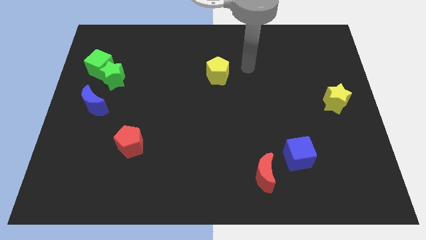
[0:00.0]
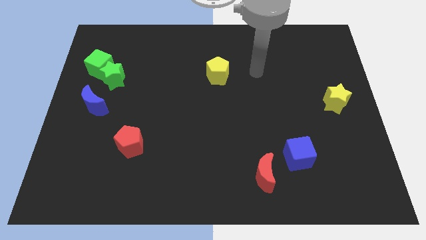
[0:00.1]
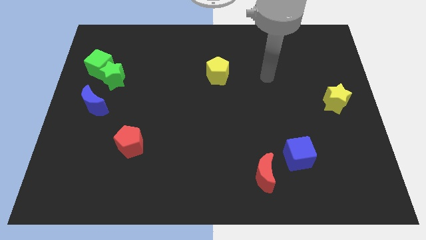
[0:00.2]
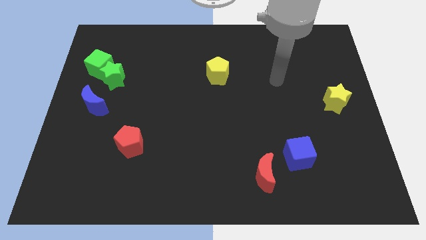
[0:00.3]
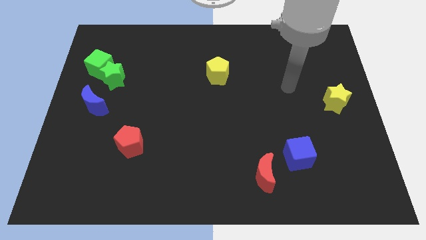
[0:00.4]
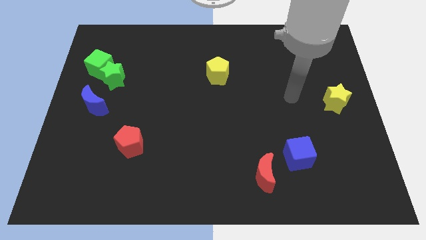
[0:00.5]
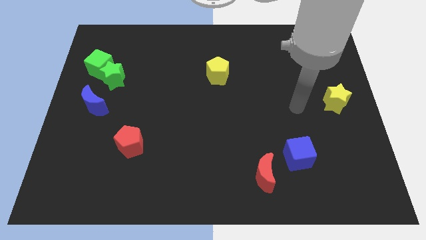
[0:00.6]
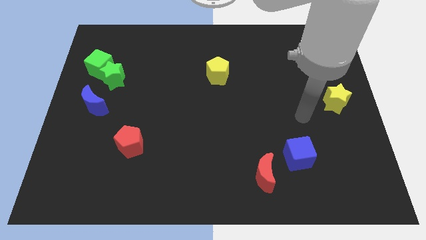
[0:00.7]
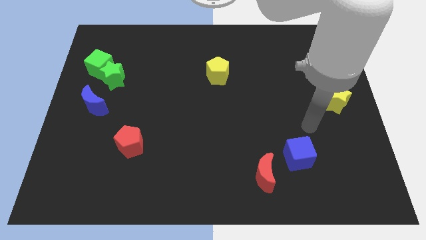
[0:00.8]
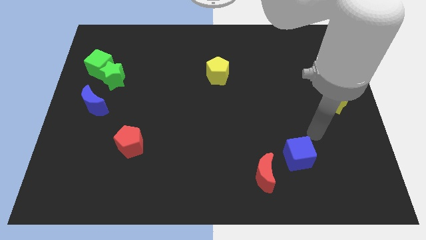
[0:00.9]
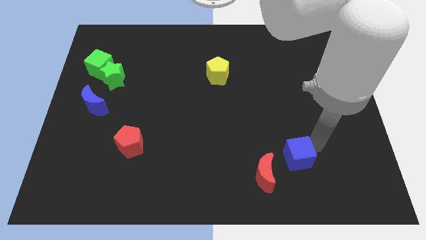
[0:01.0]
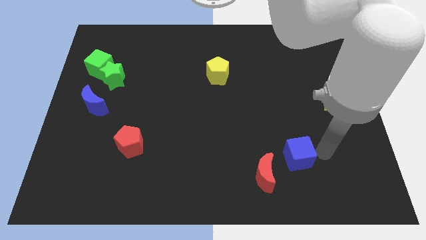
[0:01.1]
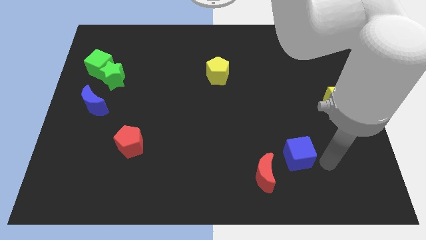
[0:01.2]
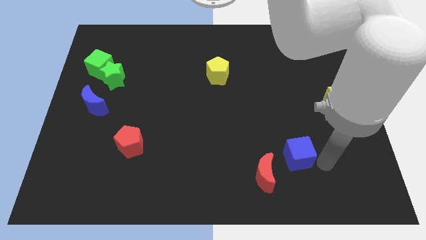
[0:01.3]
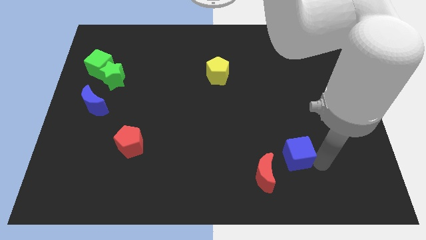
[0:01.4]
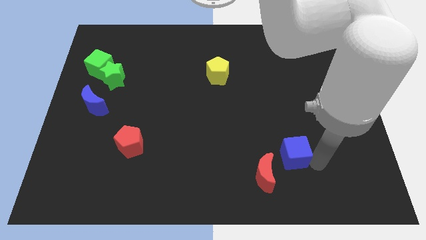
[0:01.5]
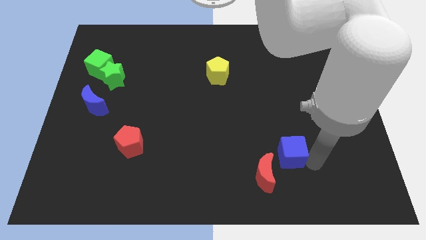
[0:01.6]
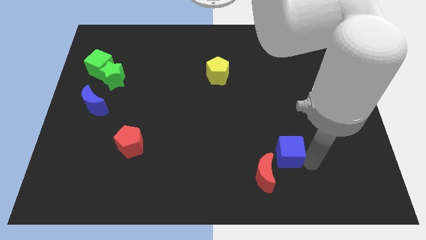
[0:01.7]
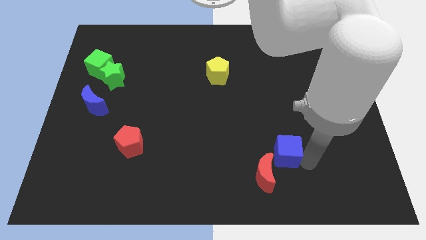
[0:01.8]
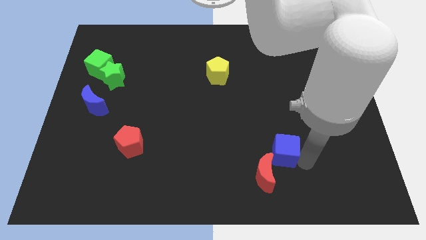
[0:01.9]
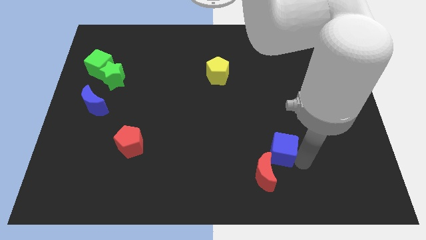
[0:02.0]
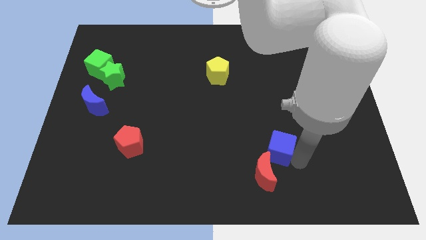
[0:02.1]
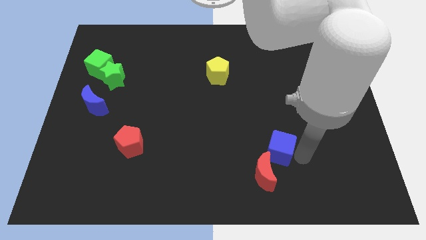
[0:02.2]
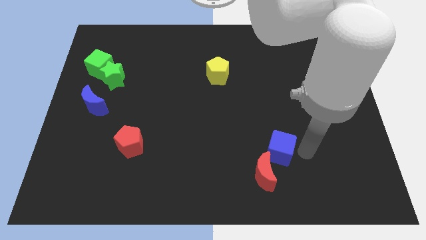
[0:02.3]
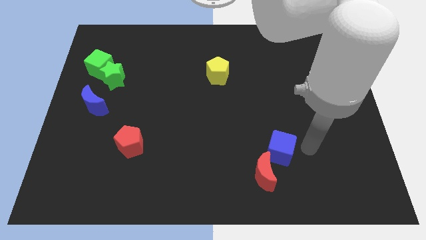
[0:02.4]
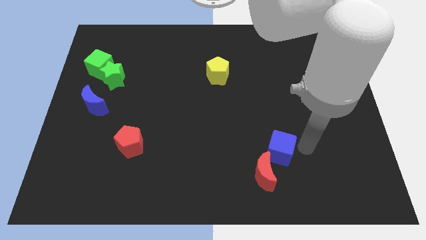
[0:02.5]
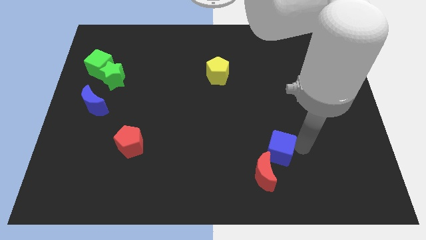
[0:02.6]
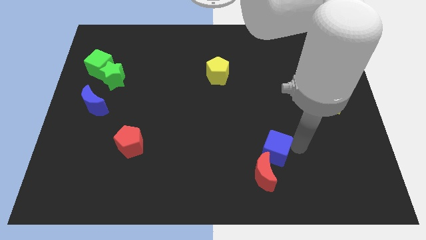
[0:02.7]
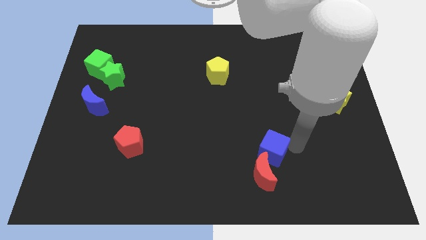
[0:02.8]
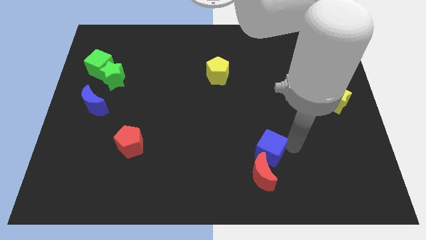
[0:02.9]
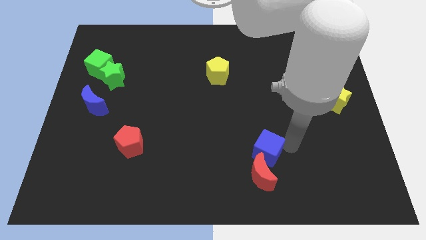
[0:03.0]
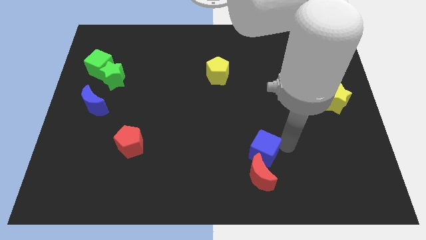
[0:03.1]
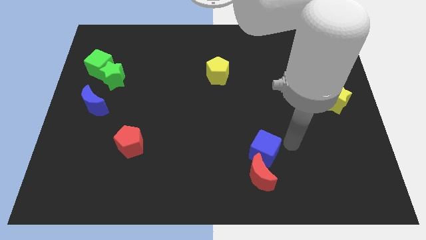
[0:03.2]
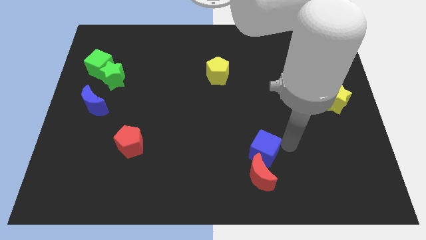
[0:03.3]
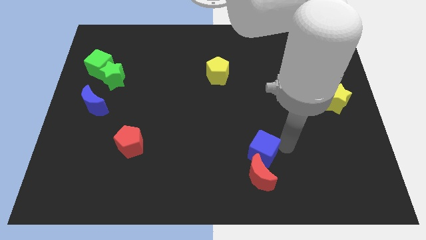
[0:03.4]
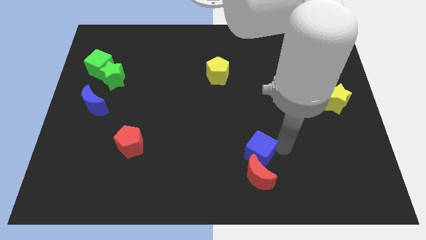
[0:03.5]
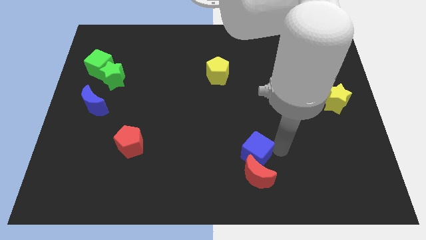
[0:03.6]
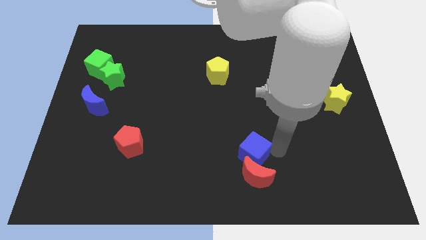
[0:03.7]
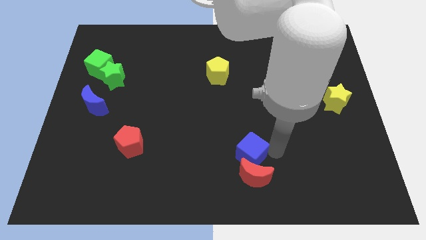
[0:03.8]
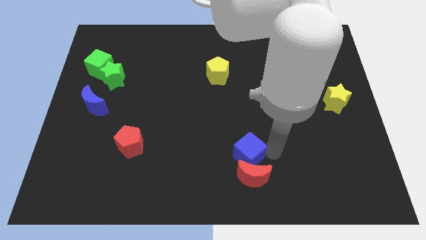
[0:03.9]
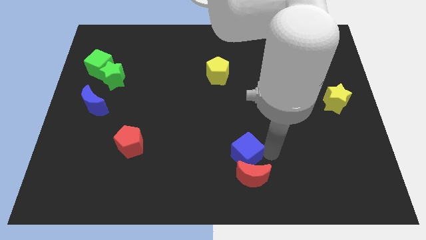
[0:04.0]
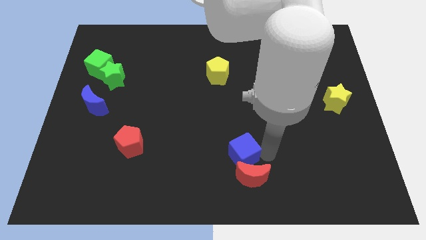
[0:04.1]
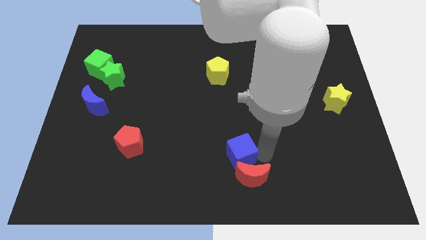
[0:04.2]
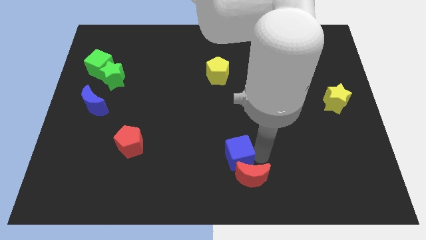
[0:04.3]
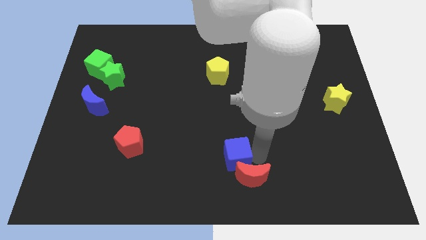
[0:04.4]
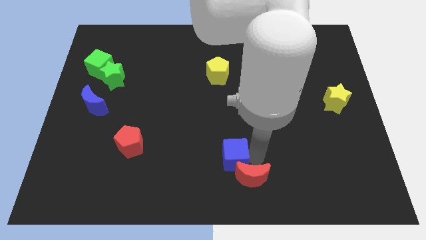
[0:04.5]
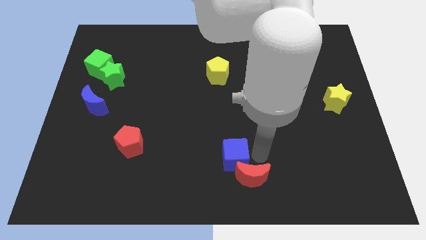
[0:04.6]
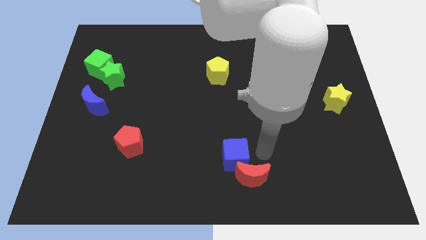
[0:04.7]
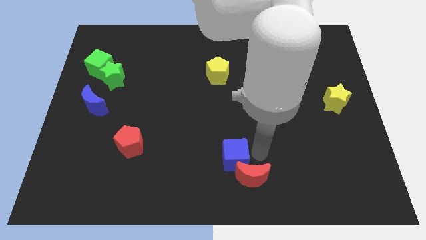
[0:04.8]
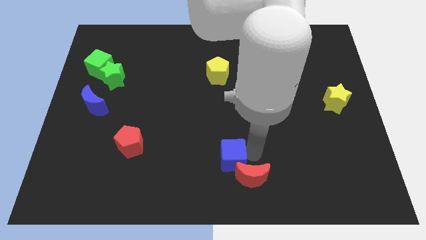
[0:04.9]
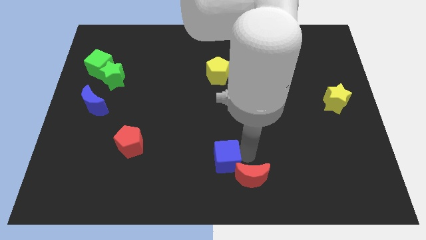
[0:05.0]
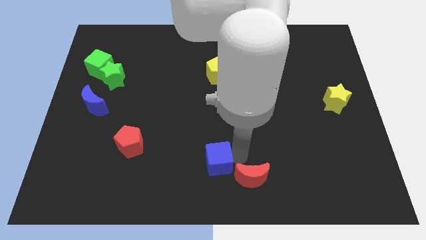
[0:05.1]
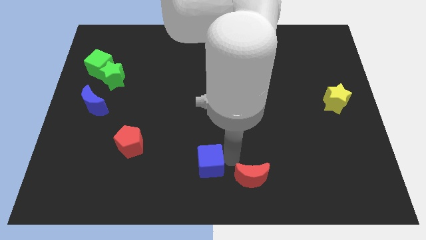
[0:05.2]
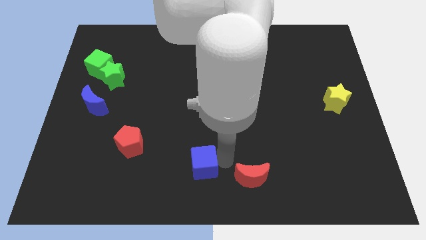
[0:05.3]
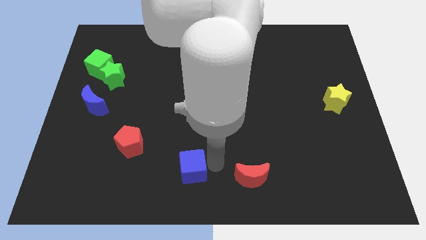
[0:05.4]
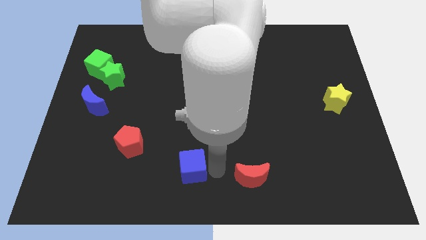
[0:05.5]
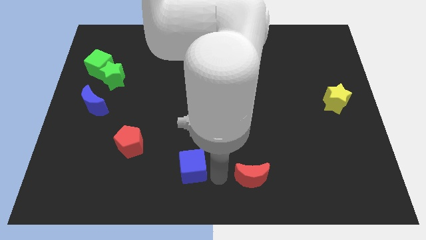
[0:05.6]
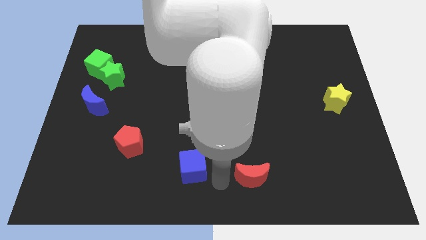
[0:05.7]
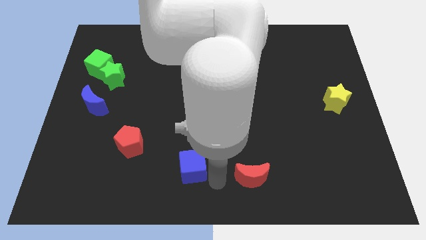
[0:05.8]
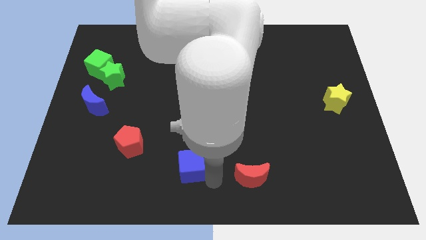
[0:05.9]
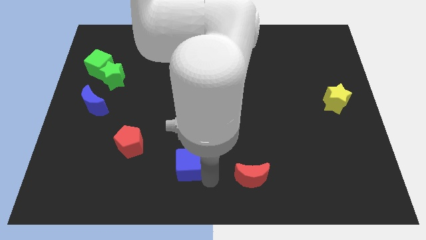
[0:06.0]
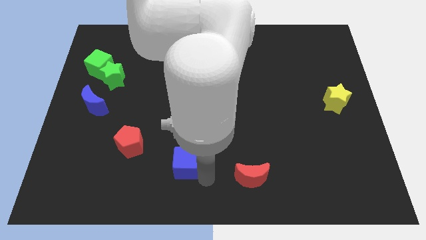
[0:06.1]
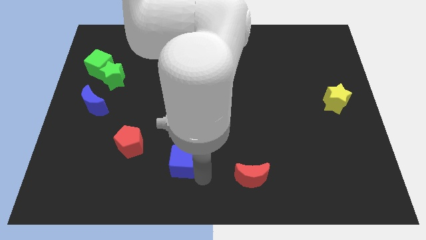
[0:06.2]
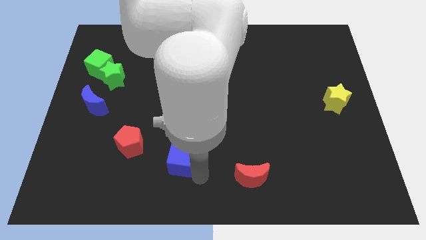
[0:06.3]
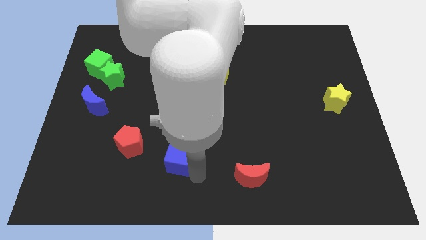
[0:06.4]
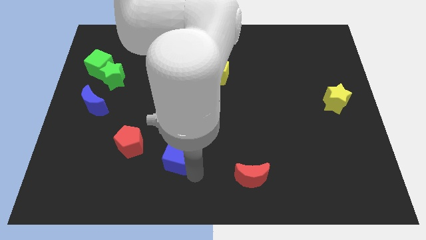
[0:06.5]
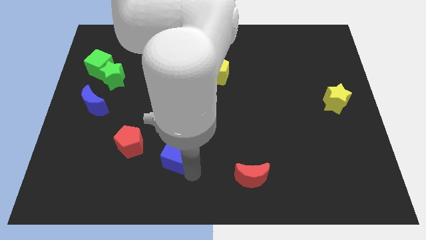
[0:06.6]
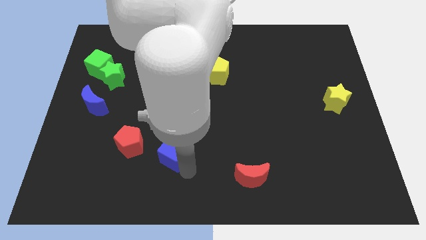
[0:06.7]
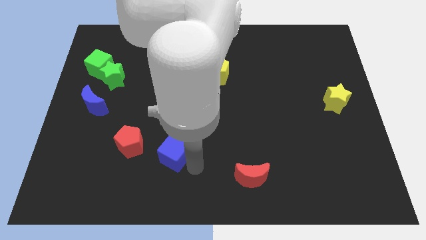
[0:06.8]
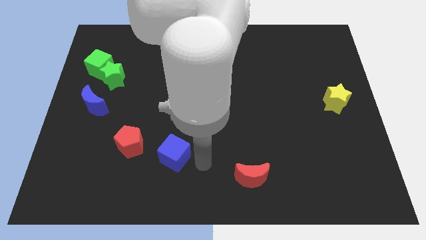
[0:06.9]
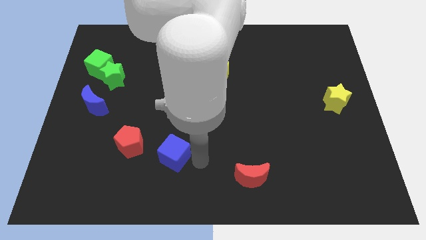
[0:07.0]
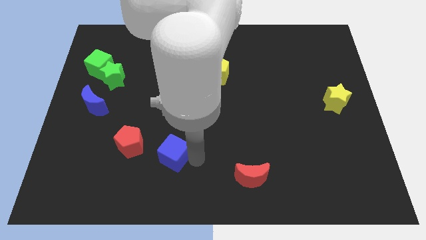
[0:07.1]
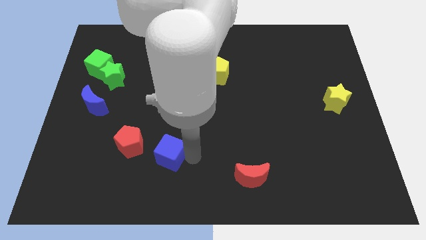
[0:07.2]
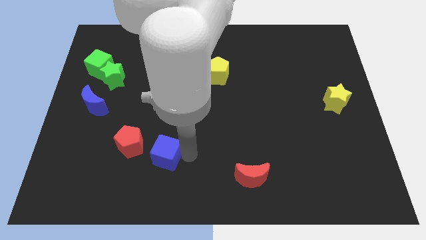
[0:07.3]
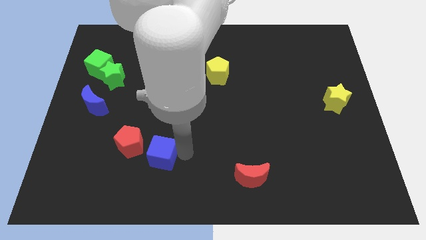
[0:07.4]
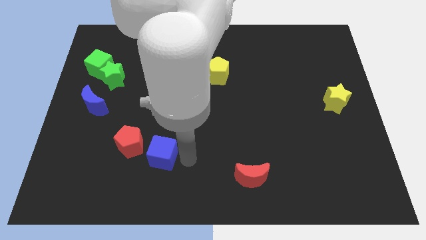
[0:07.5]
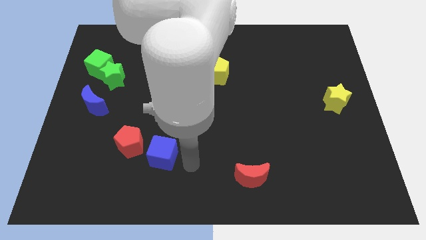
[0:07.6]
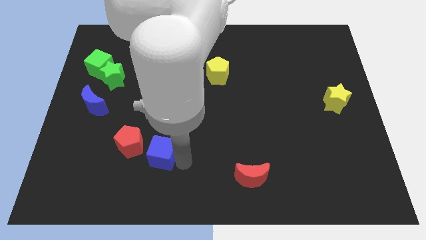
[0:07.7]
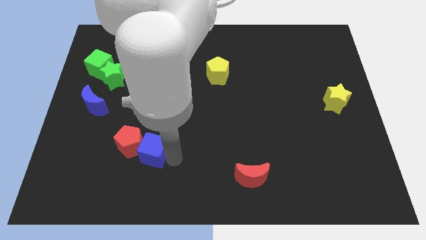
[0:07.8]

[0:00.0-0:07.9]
put the blue cube towards the red pentagon
